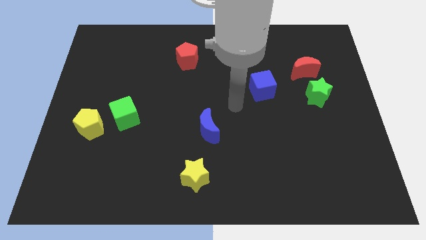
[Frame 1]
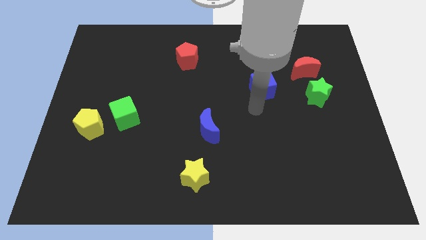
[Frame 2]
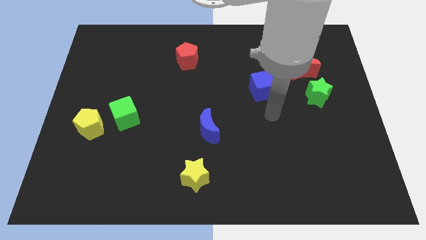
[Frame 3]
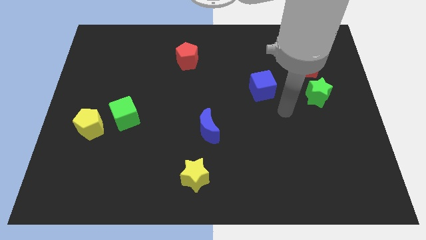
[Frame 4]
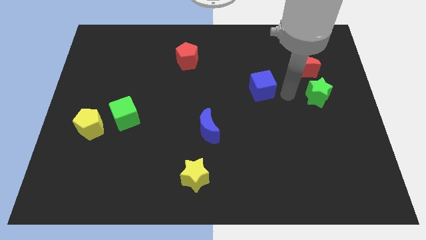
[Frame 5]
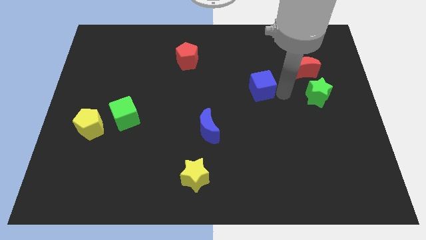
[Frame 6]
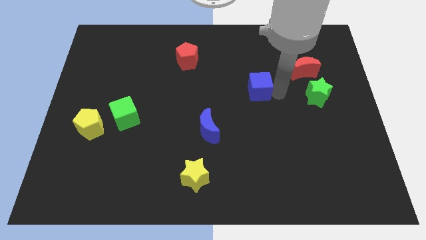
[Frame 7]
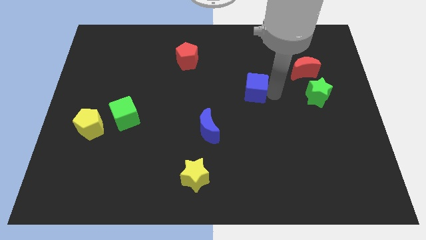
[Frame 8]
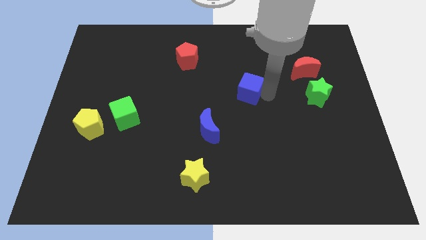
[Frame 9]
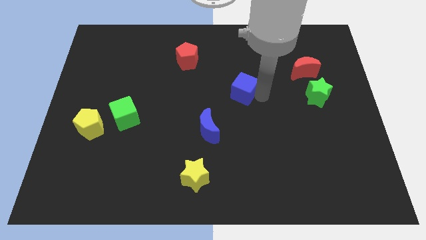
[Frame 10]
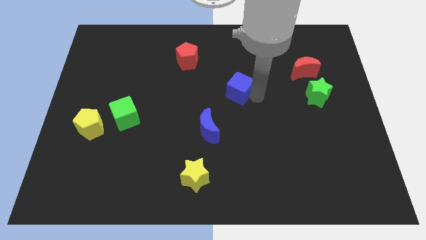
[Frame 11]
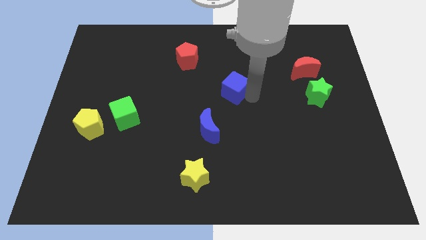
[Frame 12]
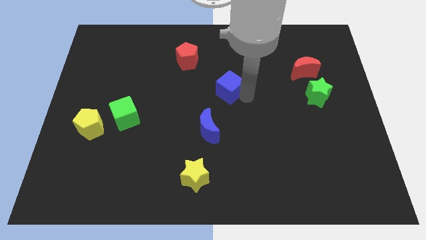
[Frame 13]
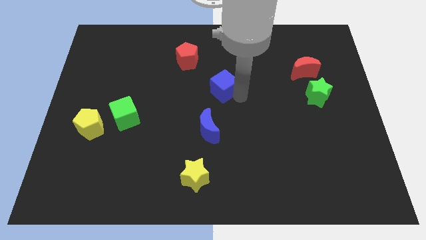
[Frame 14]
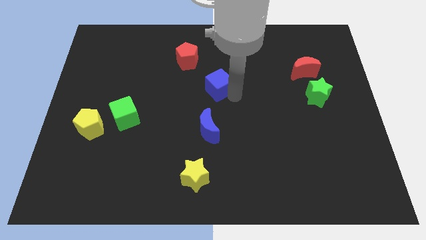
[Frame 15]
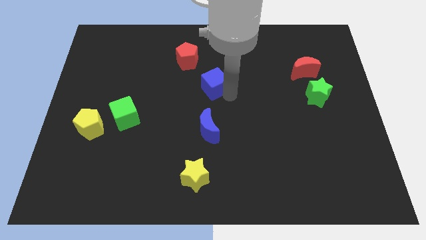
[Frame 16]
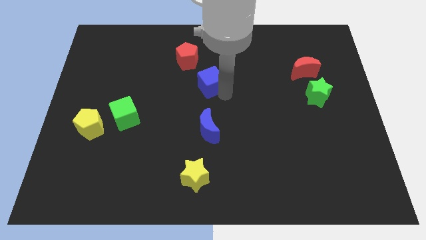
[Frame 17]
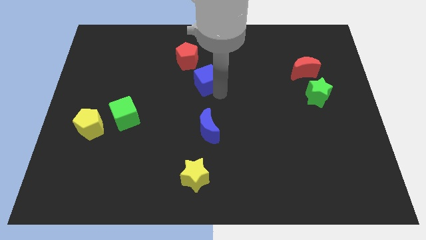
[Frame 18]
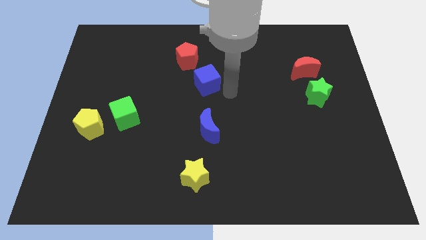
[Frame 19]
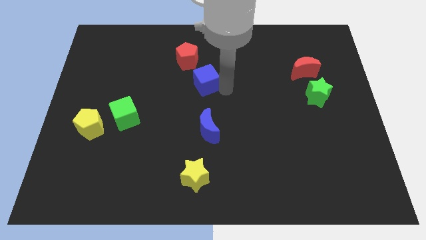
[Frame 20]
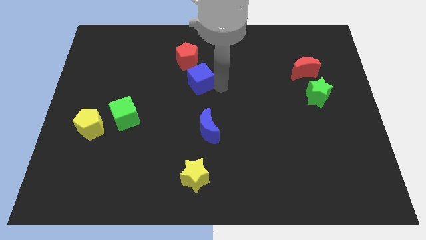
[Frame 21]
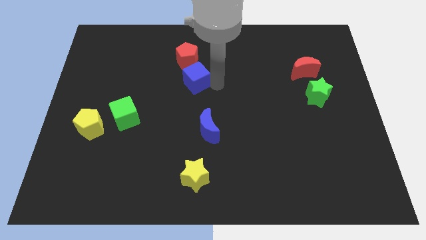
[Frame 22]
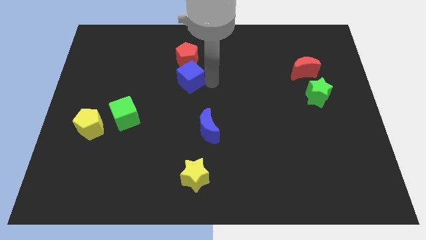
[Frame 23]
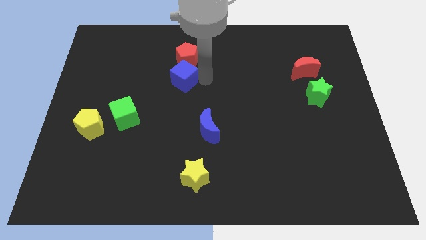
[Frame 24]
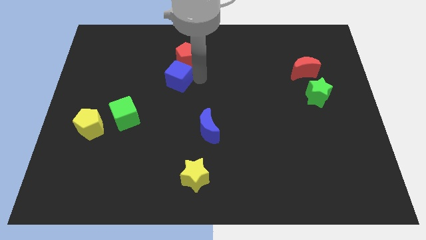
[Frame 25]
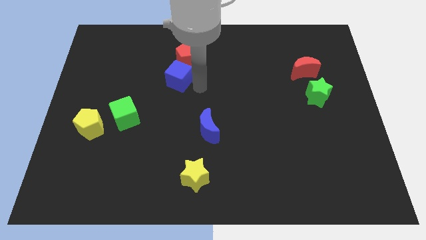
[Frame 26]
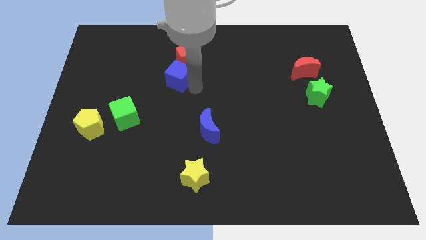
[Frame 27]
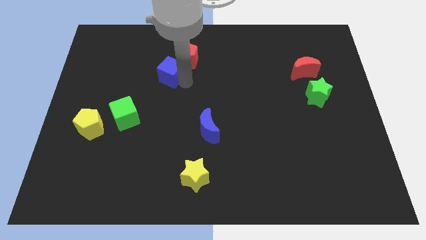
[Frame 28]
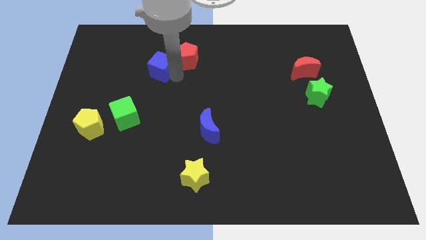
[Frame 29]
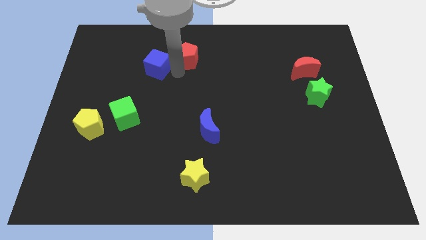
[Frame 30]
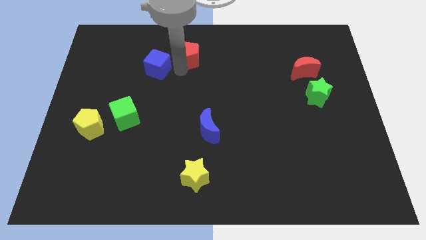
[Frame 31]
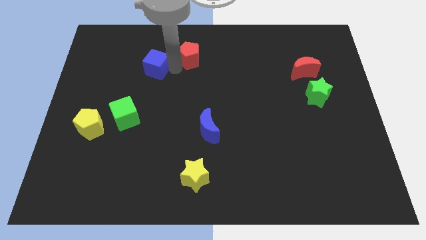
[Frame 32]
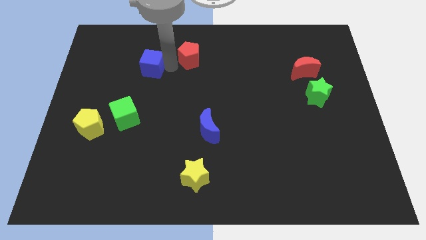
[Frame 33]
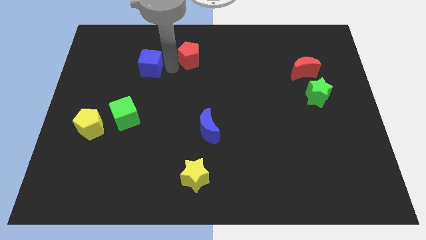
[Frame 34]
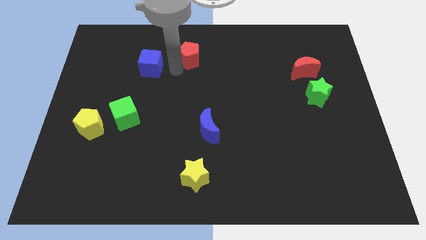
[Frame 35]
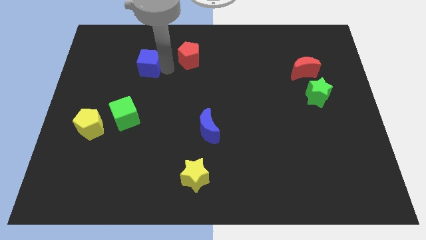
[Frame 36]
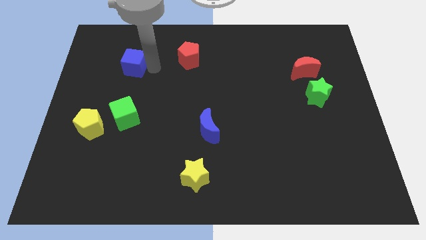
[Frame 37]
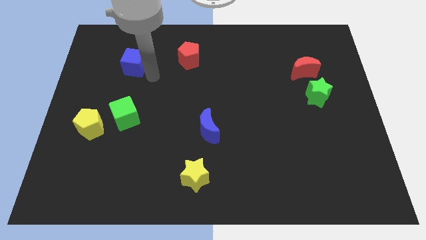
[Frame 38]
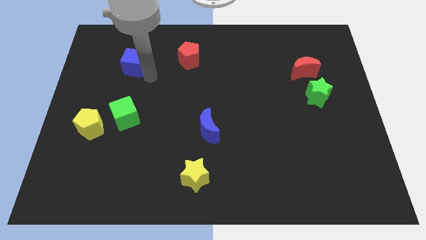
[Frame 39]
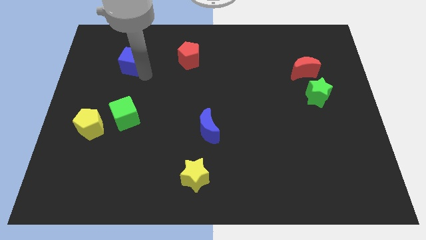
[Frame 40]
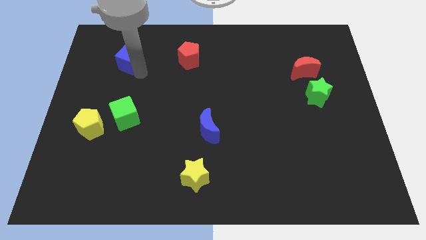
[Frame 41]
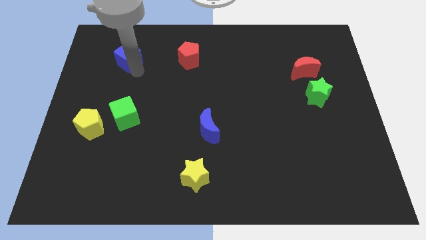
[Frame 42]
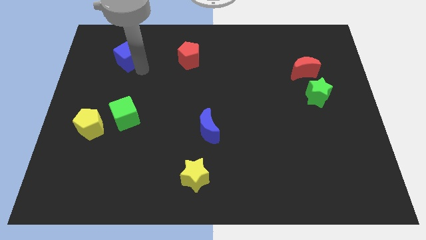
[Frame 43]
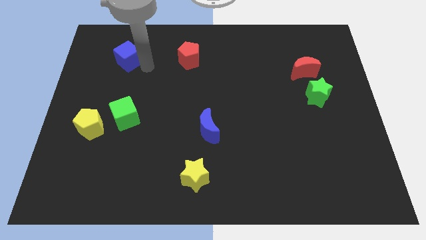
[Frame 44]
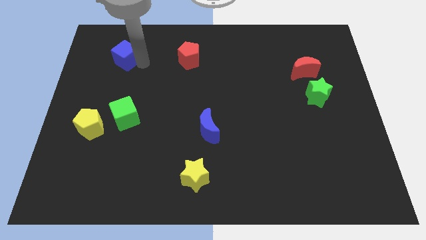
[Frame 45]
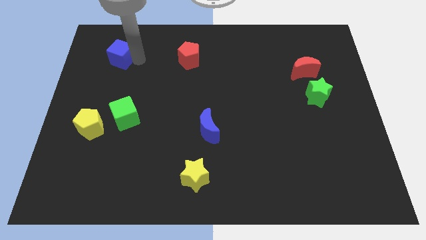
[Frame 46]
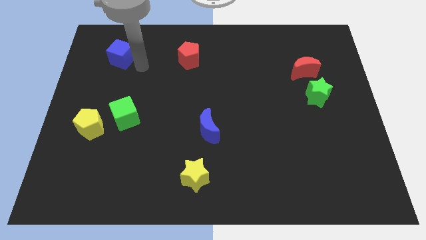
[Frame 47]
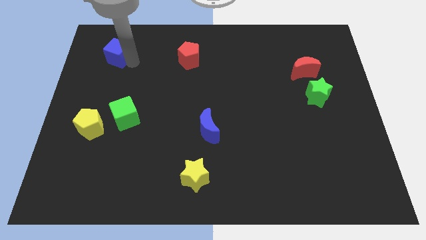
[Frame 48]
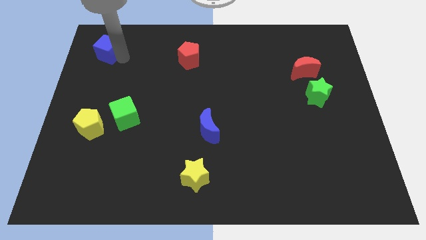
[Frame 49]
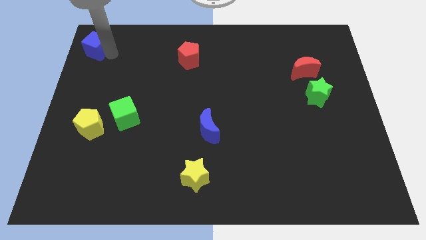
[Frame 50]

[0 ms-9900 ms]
put the blue cube to the upper left corner

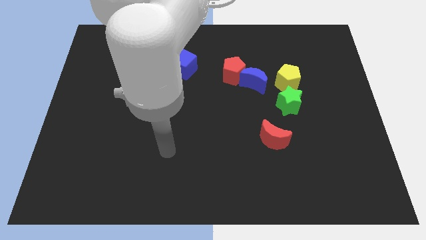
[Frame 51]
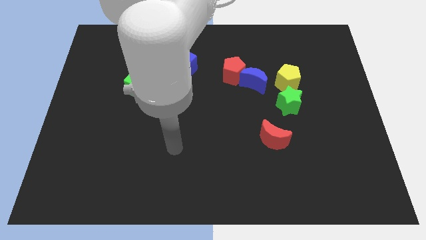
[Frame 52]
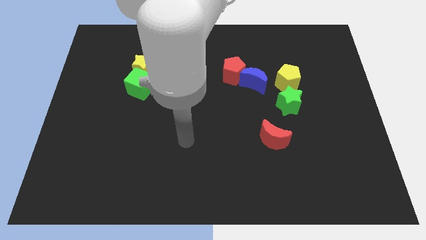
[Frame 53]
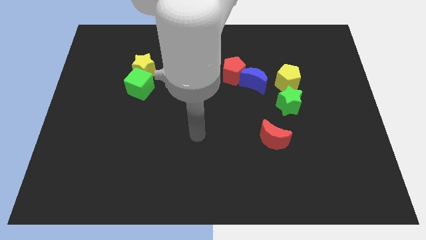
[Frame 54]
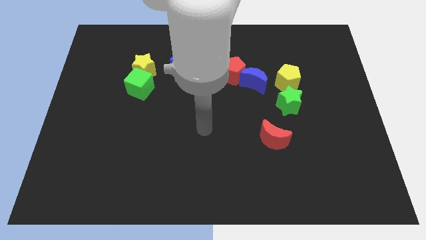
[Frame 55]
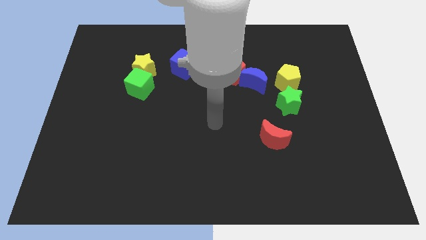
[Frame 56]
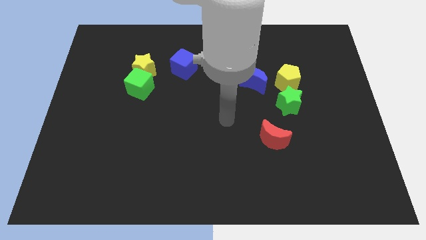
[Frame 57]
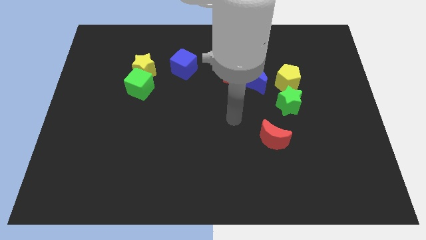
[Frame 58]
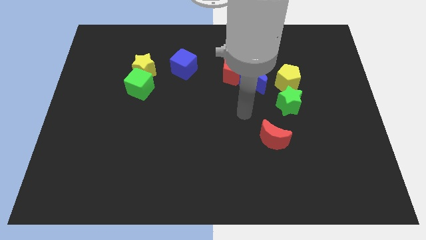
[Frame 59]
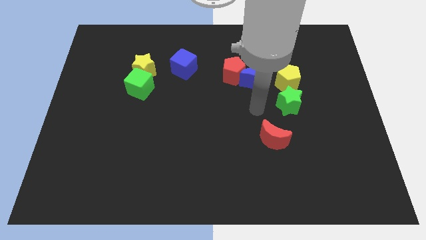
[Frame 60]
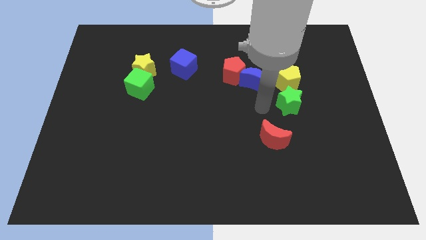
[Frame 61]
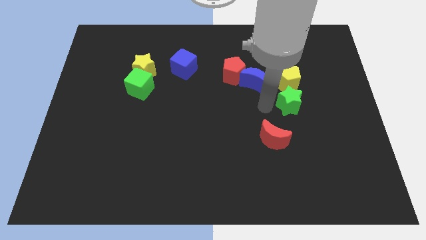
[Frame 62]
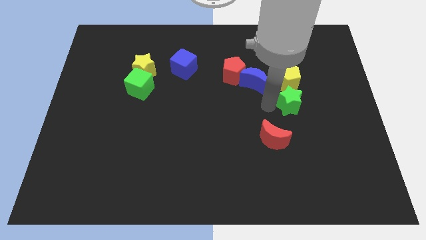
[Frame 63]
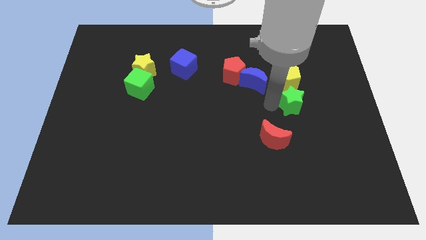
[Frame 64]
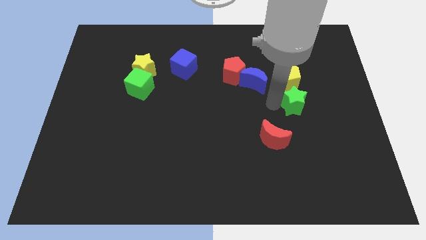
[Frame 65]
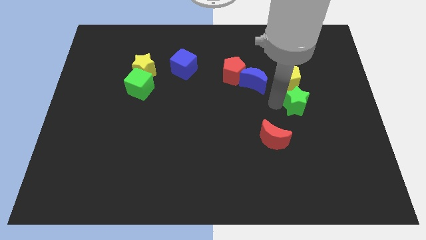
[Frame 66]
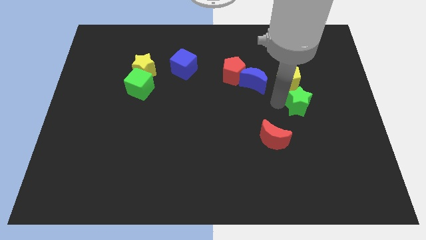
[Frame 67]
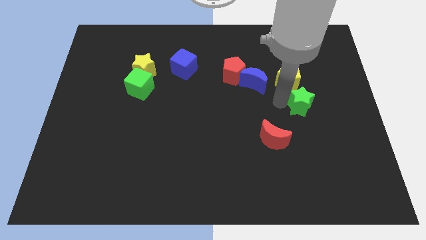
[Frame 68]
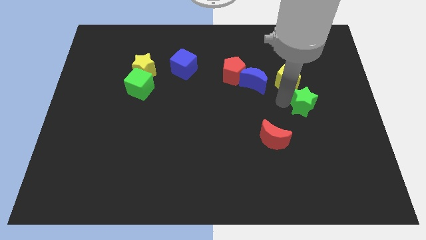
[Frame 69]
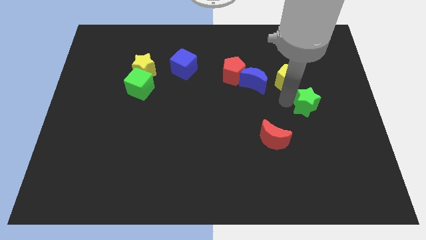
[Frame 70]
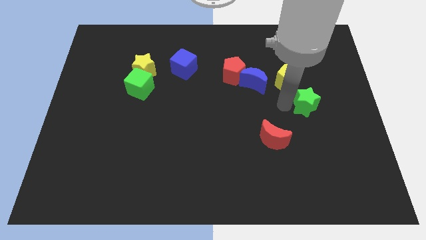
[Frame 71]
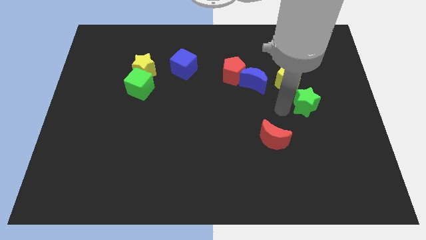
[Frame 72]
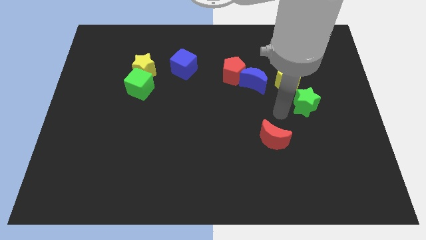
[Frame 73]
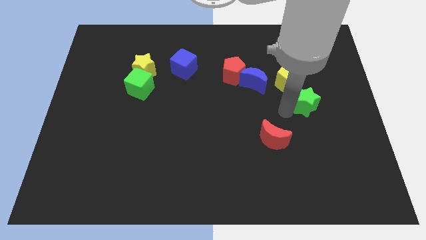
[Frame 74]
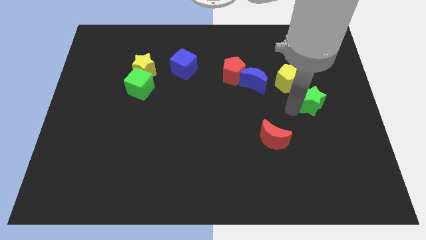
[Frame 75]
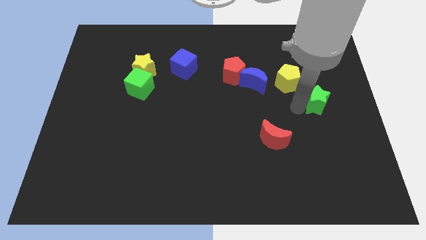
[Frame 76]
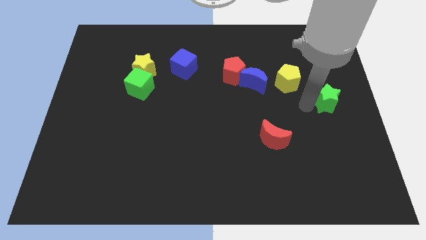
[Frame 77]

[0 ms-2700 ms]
slide the green star to the right side of the board
